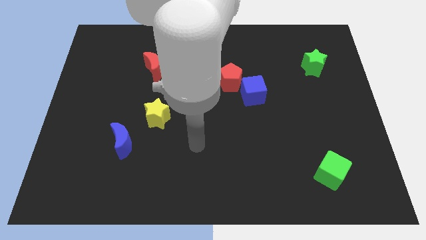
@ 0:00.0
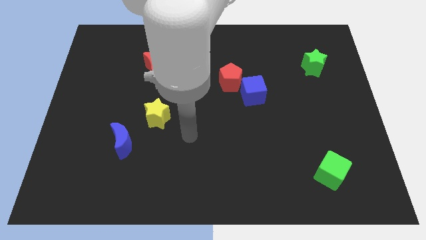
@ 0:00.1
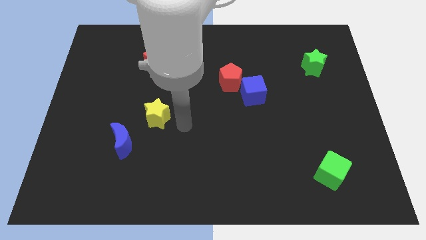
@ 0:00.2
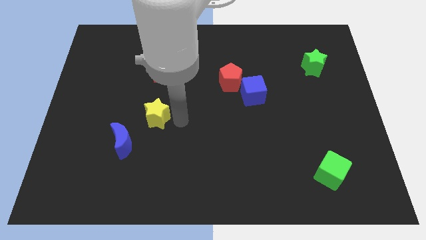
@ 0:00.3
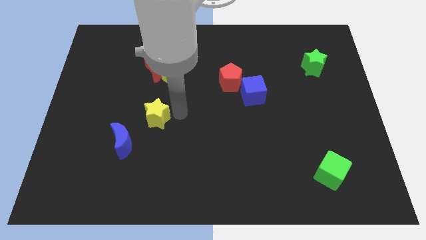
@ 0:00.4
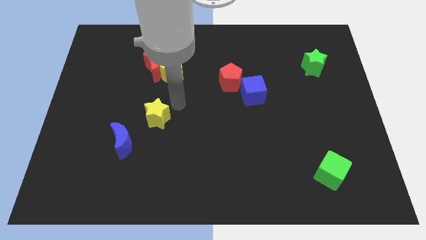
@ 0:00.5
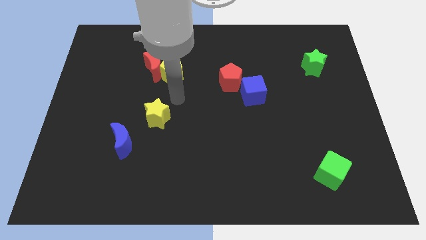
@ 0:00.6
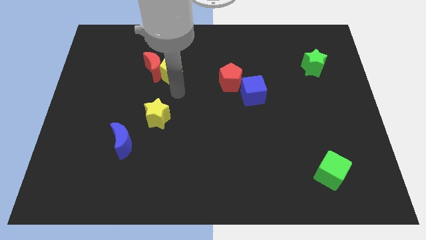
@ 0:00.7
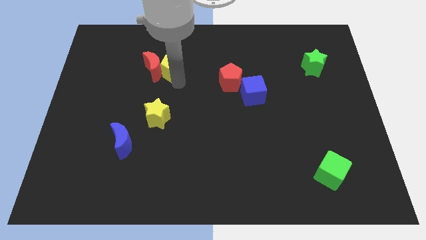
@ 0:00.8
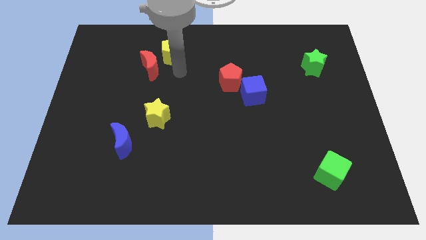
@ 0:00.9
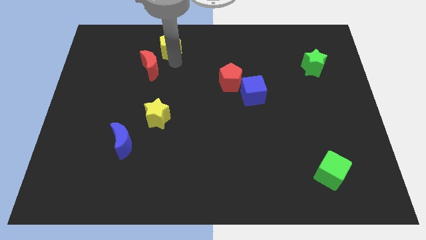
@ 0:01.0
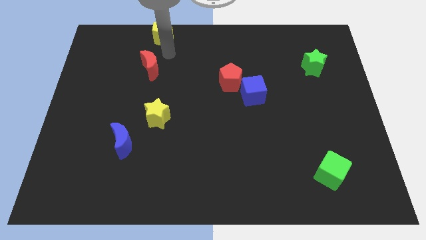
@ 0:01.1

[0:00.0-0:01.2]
separate the red moon from the yellow pentagon

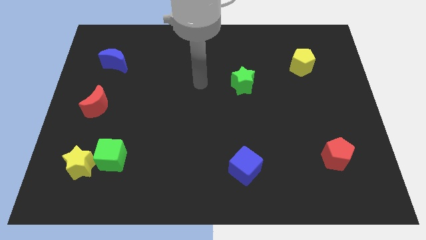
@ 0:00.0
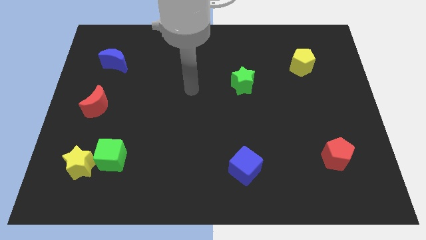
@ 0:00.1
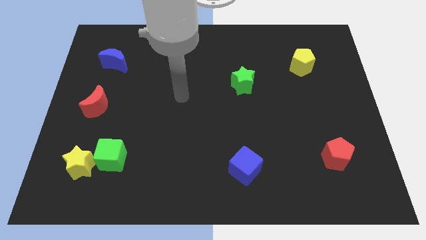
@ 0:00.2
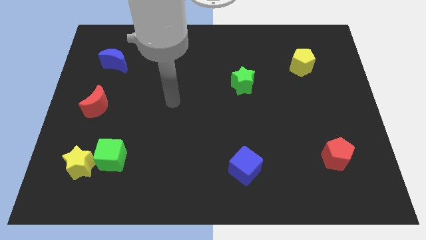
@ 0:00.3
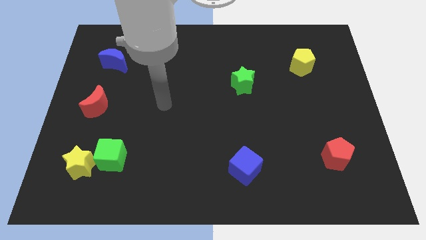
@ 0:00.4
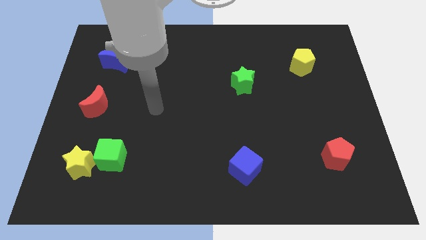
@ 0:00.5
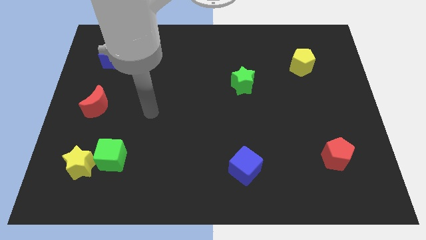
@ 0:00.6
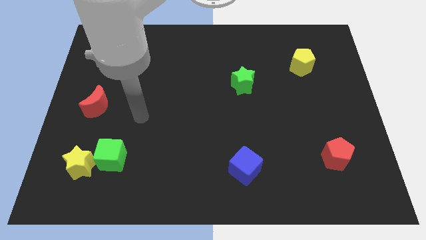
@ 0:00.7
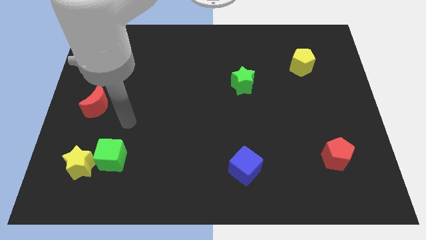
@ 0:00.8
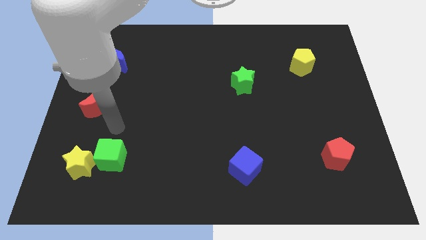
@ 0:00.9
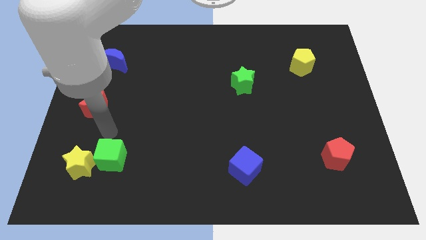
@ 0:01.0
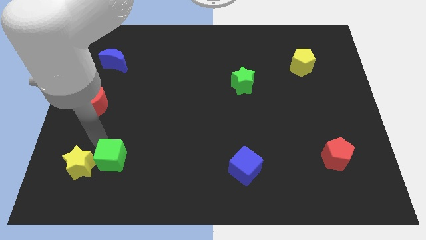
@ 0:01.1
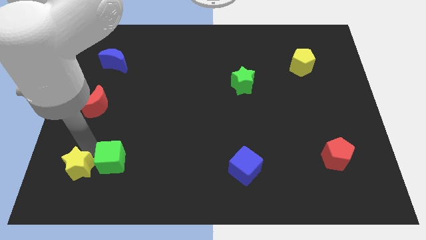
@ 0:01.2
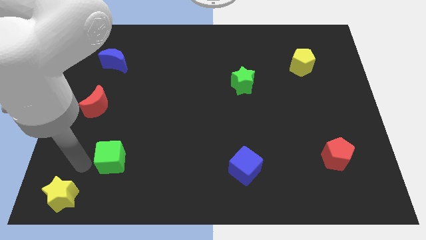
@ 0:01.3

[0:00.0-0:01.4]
move the green cube away from the yellow star

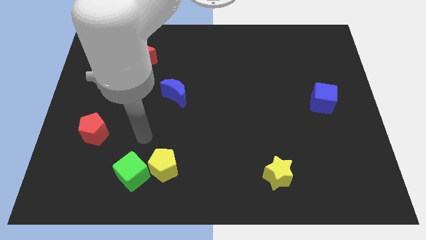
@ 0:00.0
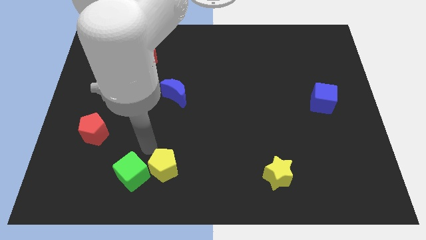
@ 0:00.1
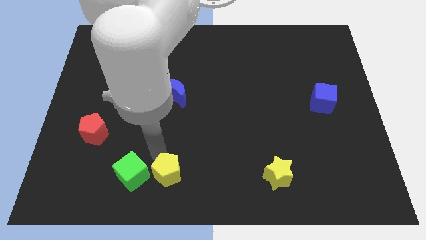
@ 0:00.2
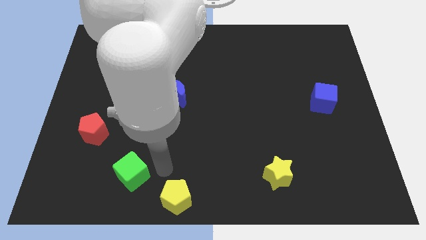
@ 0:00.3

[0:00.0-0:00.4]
separate the green cube from the yellow pentagon

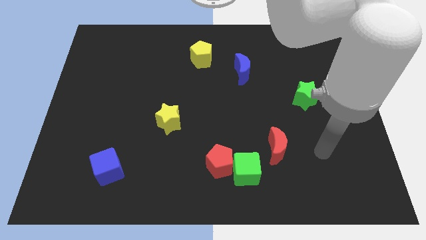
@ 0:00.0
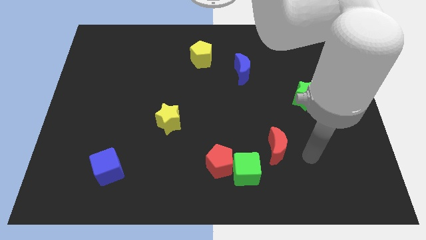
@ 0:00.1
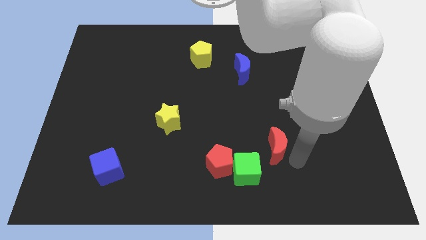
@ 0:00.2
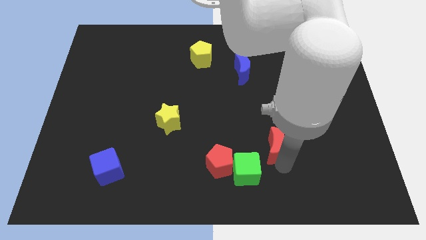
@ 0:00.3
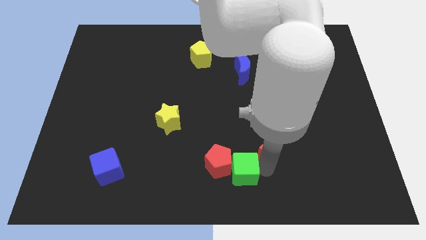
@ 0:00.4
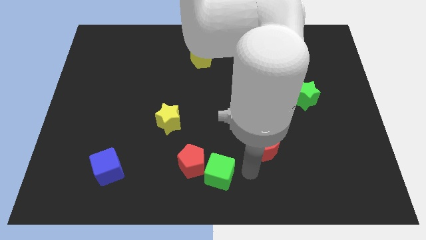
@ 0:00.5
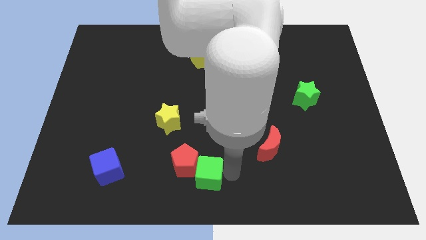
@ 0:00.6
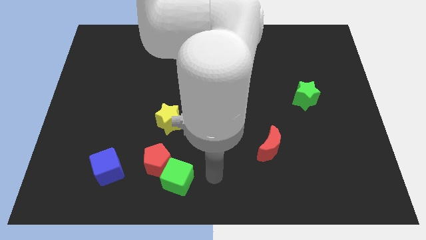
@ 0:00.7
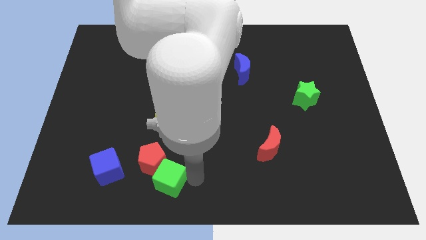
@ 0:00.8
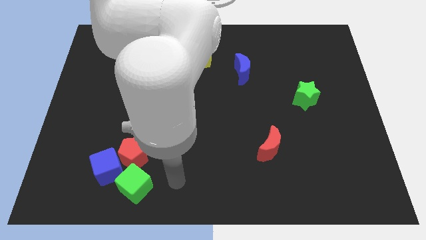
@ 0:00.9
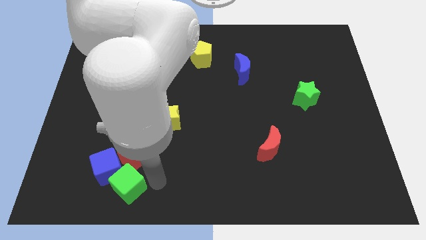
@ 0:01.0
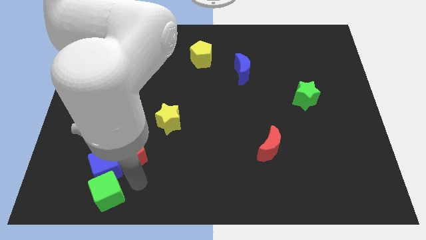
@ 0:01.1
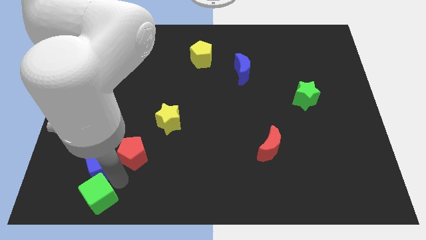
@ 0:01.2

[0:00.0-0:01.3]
separate the red pentagon from the green cube

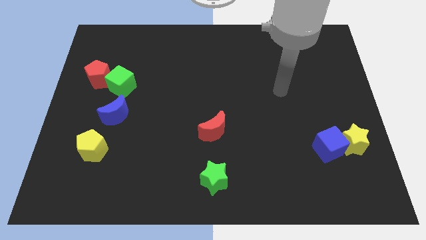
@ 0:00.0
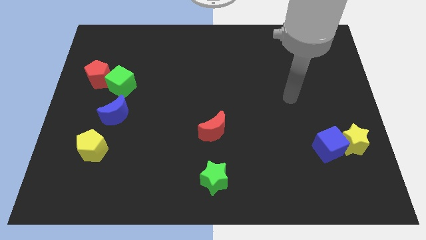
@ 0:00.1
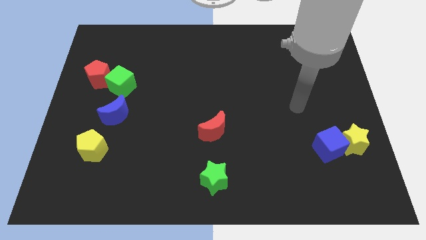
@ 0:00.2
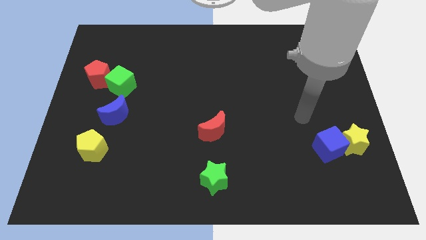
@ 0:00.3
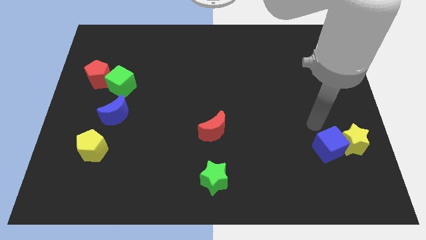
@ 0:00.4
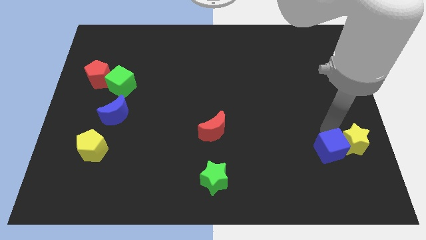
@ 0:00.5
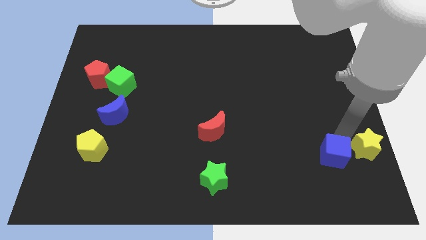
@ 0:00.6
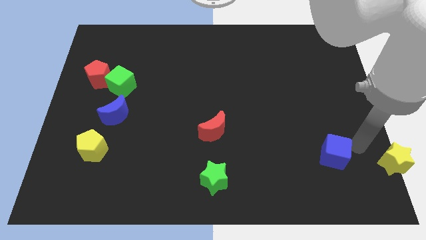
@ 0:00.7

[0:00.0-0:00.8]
separate the blue cube from the yellow star

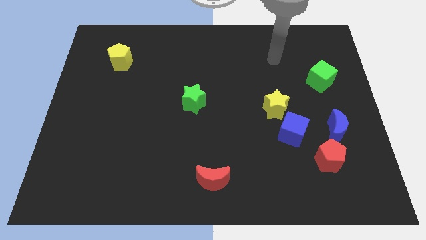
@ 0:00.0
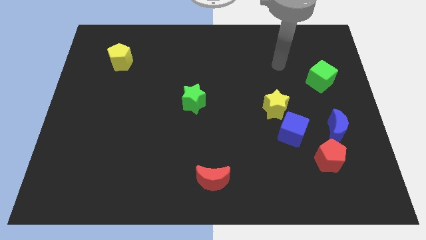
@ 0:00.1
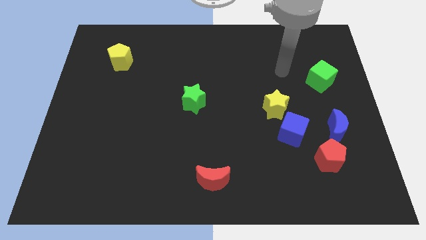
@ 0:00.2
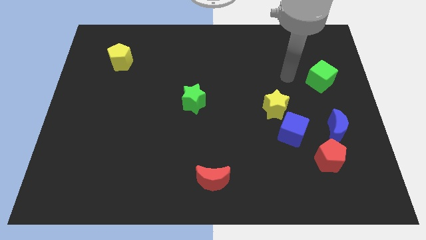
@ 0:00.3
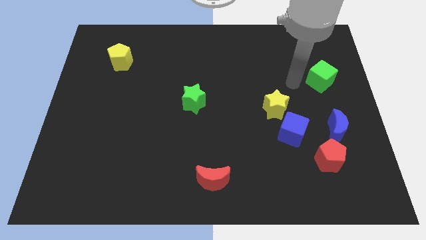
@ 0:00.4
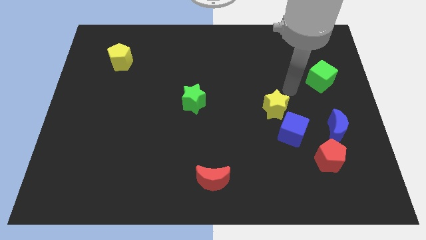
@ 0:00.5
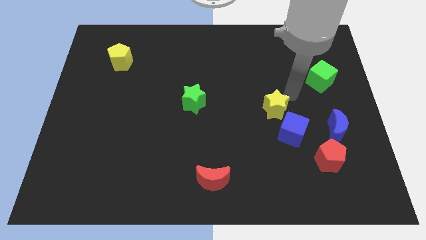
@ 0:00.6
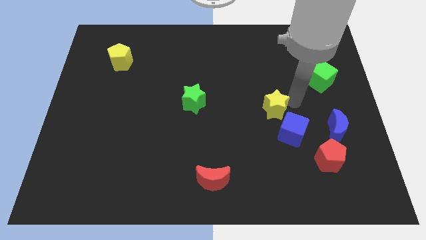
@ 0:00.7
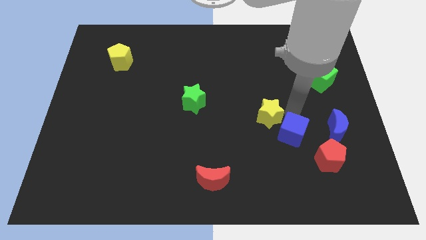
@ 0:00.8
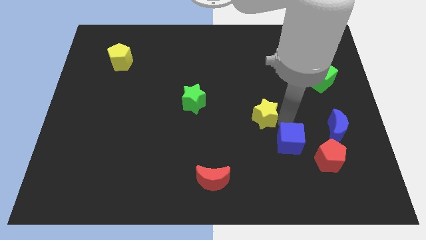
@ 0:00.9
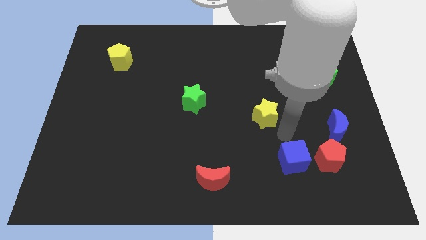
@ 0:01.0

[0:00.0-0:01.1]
move the yellow star away from the blue cube

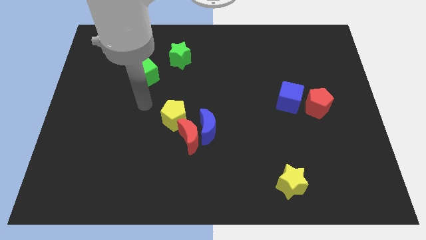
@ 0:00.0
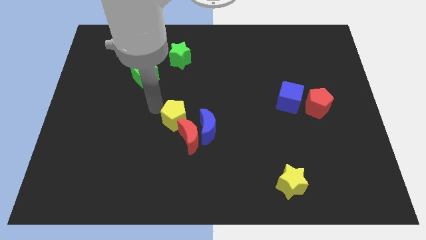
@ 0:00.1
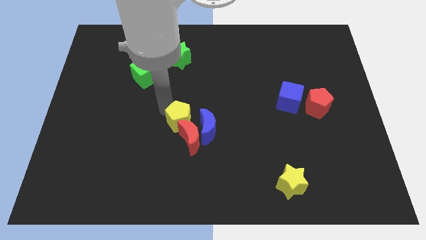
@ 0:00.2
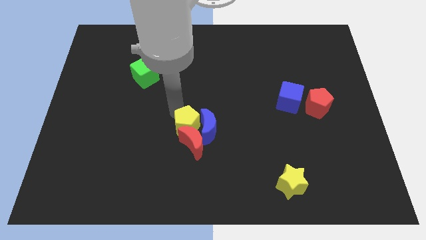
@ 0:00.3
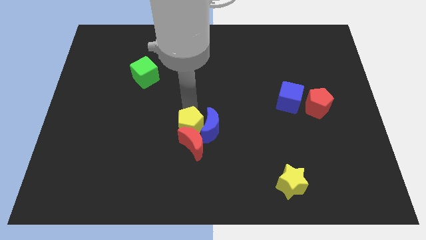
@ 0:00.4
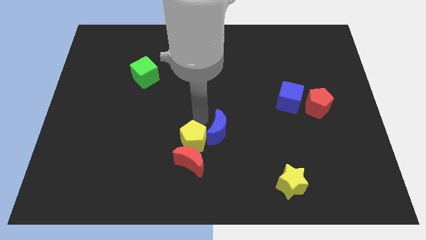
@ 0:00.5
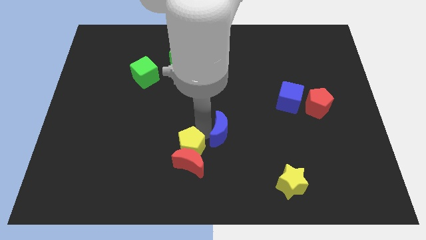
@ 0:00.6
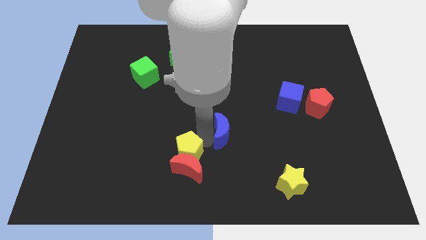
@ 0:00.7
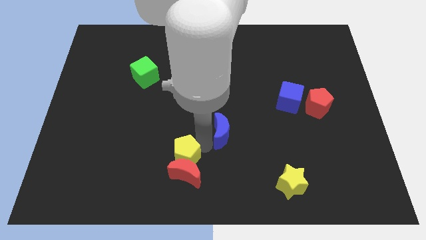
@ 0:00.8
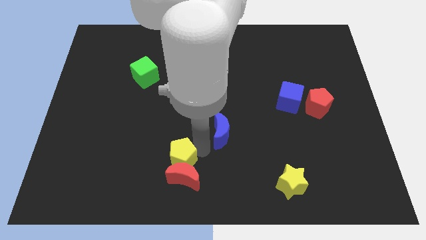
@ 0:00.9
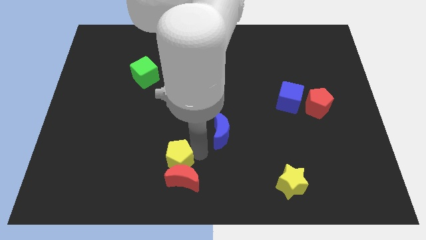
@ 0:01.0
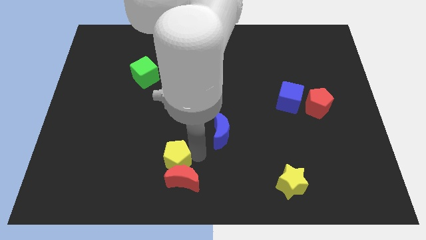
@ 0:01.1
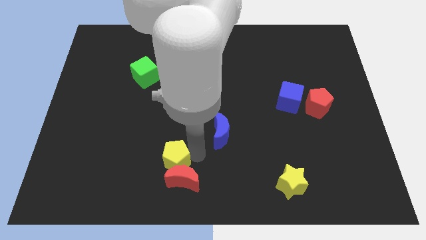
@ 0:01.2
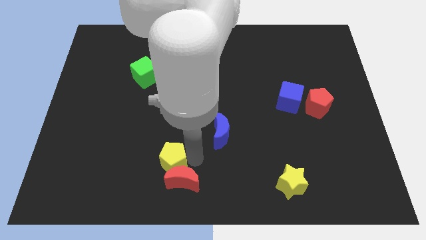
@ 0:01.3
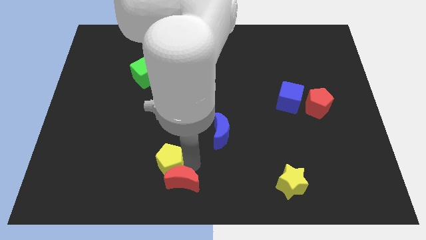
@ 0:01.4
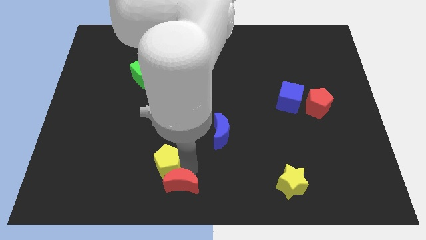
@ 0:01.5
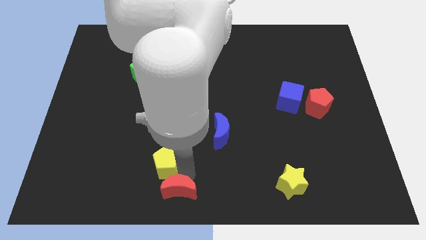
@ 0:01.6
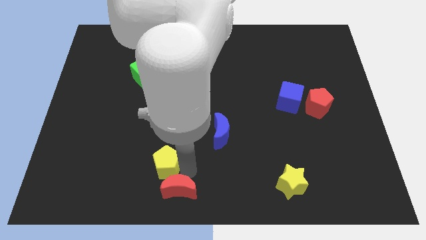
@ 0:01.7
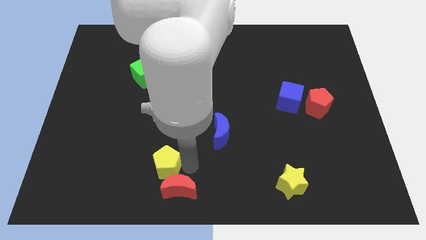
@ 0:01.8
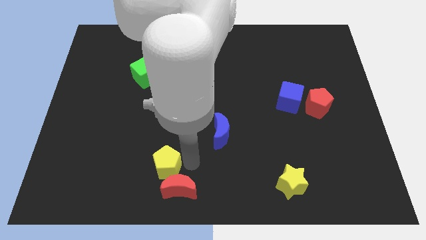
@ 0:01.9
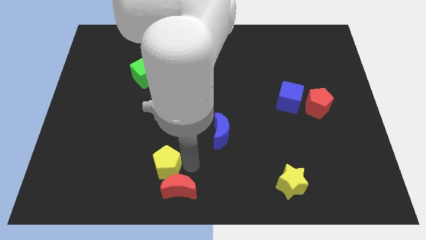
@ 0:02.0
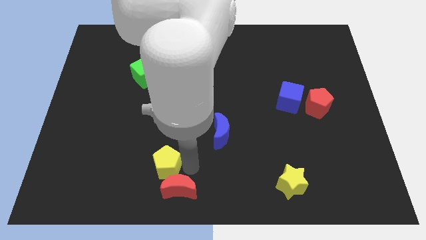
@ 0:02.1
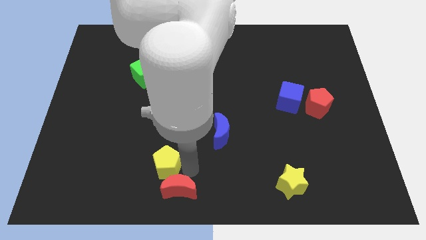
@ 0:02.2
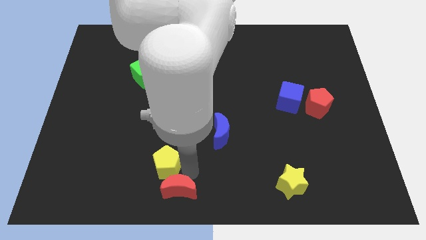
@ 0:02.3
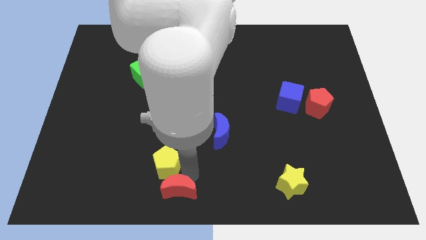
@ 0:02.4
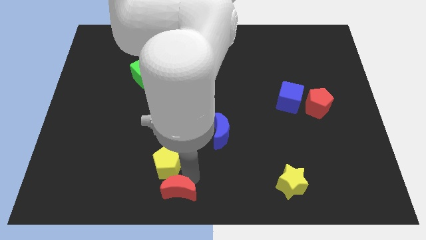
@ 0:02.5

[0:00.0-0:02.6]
move the red moon away from the blue moon and yellow pentagon

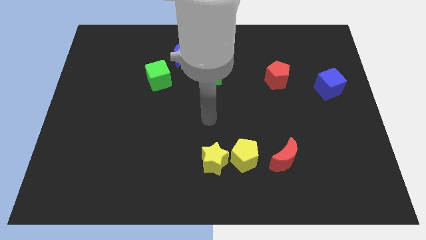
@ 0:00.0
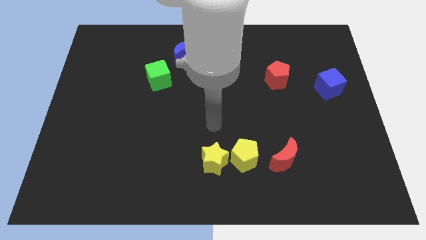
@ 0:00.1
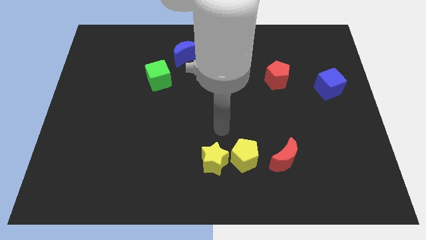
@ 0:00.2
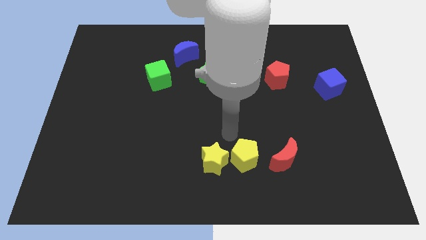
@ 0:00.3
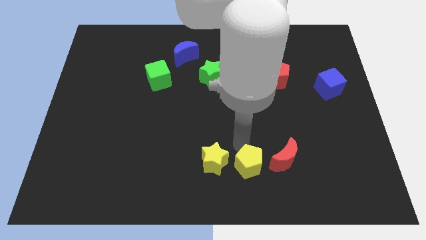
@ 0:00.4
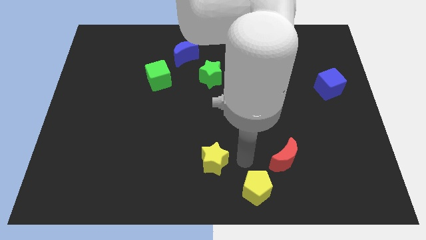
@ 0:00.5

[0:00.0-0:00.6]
separate the yellow star from the yellow pentagon

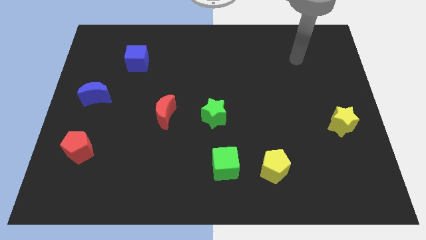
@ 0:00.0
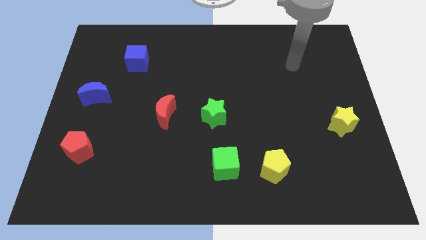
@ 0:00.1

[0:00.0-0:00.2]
move the green cube away from the yellow pentagon
